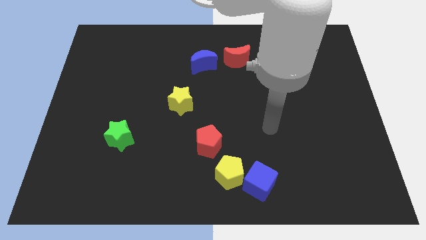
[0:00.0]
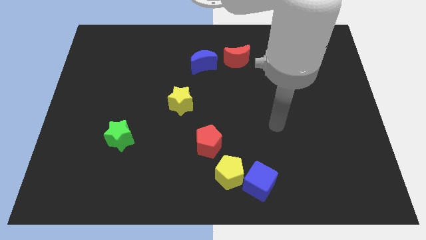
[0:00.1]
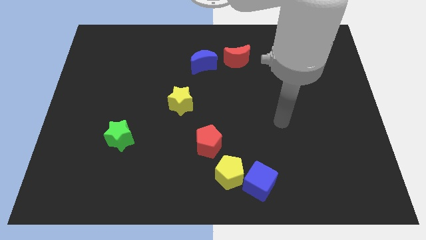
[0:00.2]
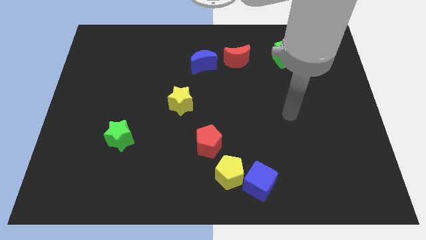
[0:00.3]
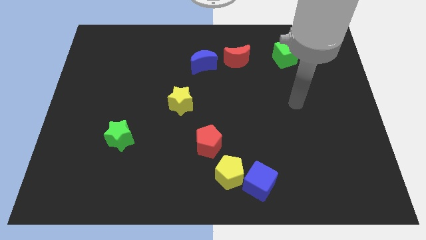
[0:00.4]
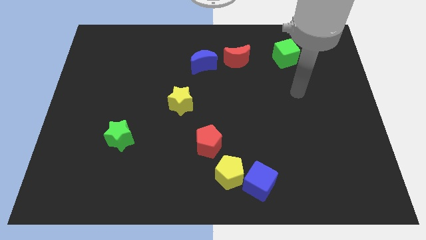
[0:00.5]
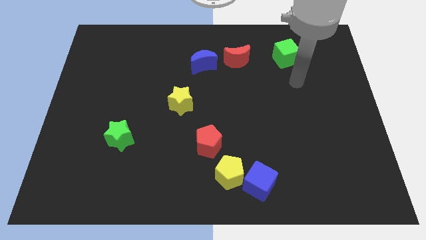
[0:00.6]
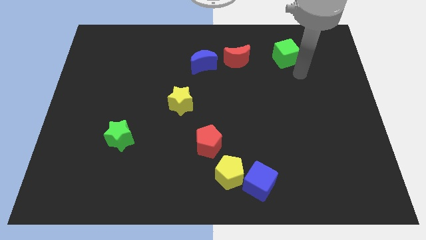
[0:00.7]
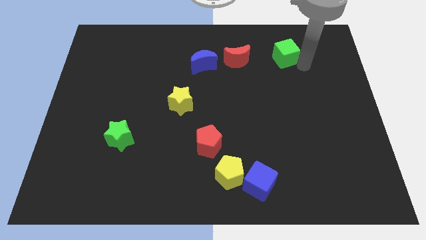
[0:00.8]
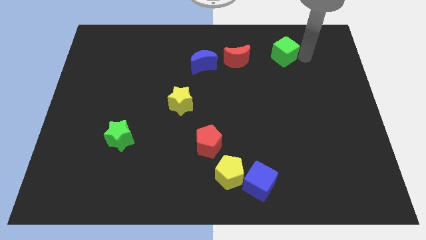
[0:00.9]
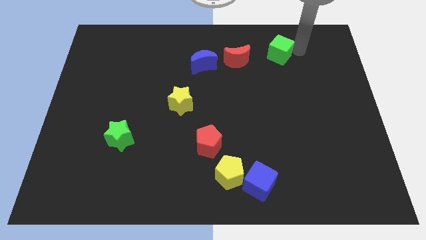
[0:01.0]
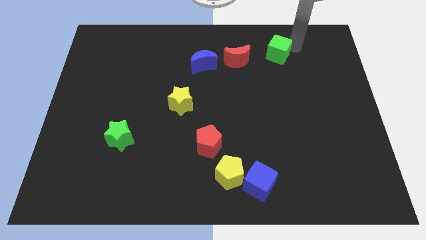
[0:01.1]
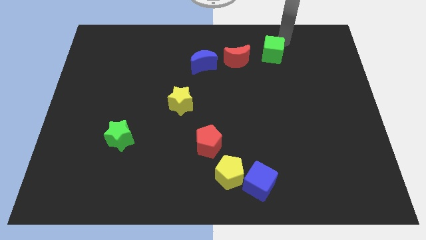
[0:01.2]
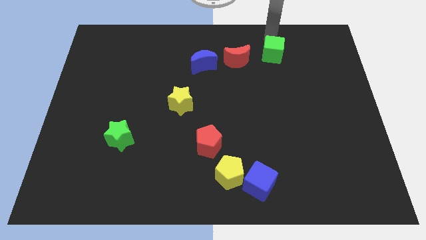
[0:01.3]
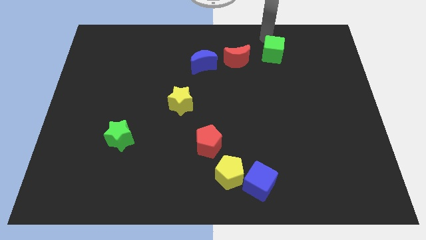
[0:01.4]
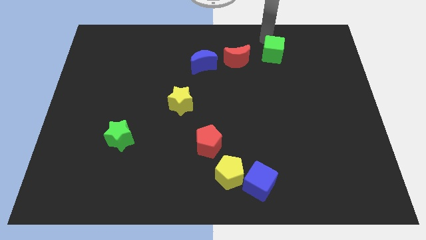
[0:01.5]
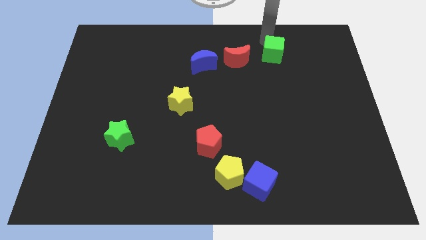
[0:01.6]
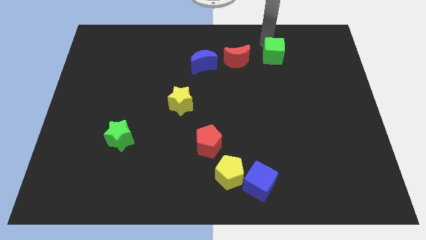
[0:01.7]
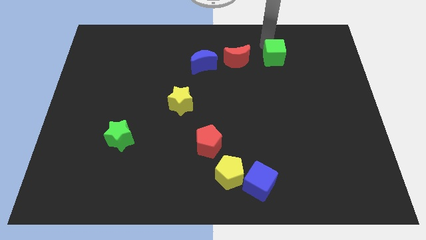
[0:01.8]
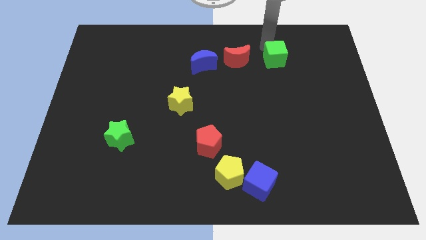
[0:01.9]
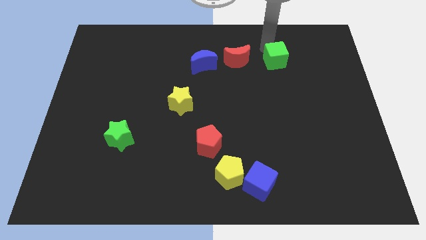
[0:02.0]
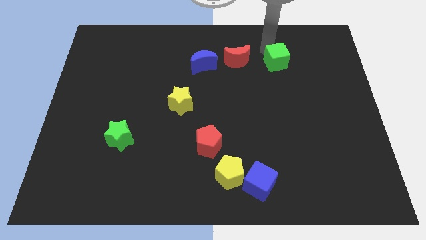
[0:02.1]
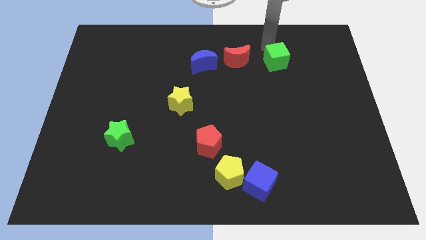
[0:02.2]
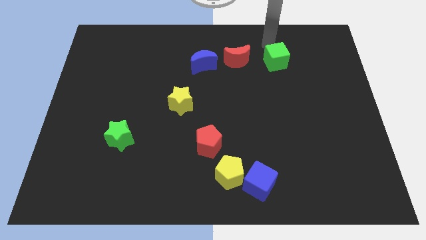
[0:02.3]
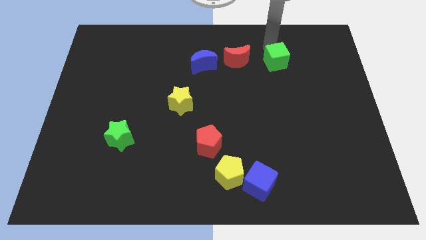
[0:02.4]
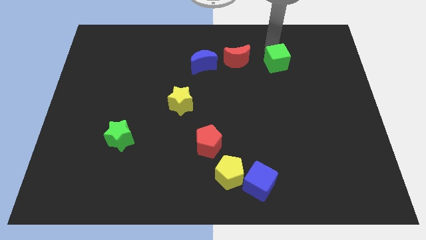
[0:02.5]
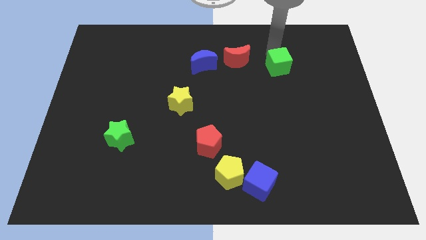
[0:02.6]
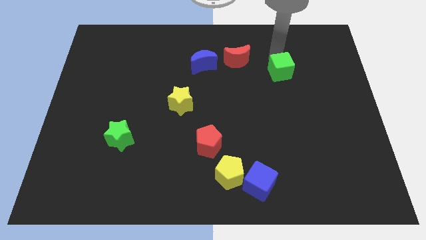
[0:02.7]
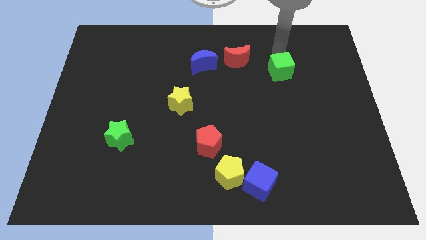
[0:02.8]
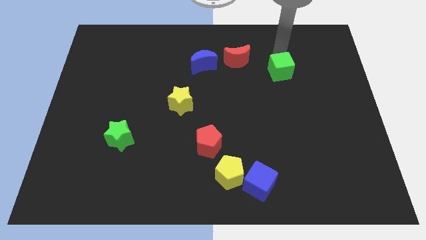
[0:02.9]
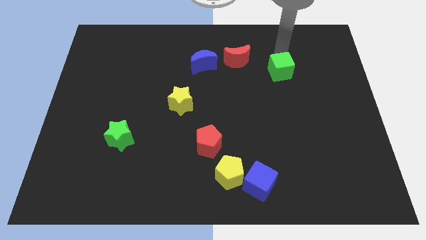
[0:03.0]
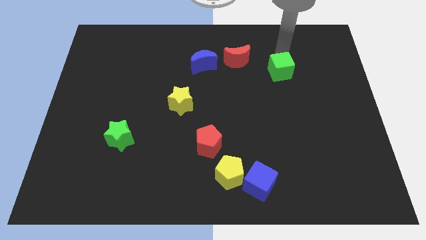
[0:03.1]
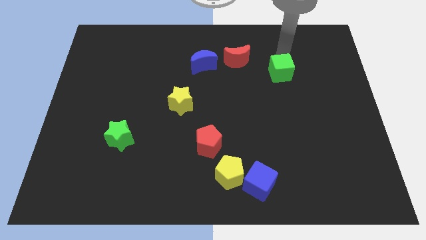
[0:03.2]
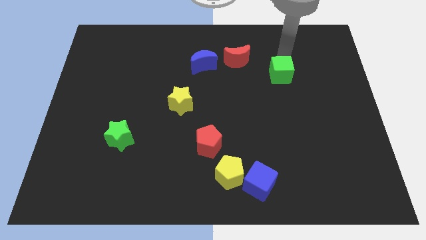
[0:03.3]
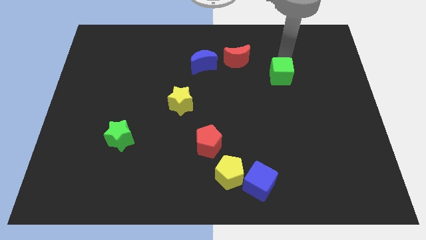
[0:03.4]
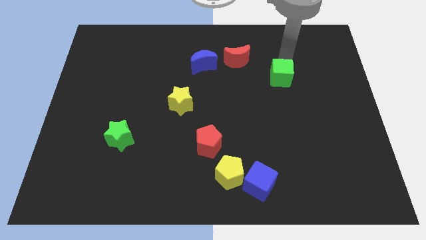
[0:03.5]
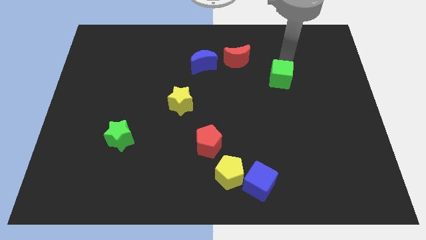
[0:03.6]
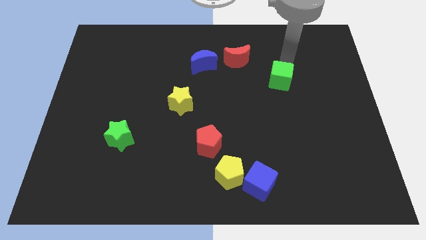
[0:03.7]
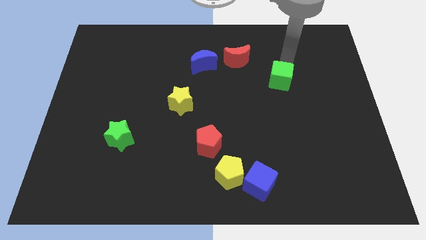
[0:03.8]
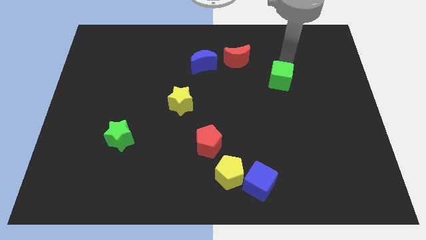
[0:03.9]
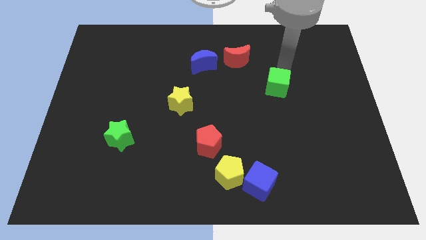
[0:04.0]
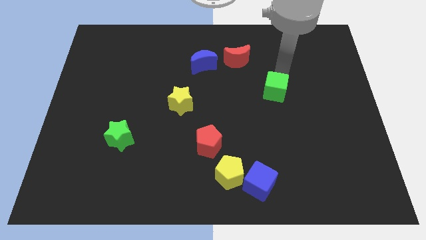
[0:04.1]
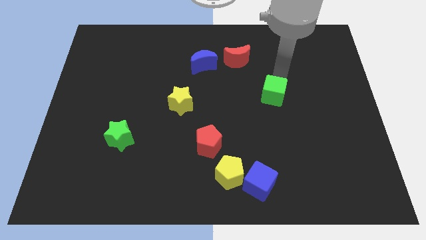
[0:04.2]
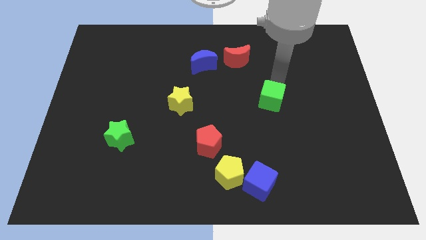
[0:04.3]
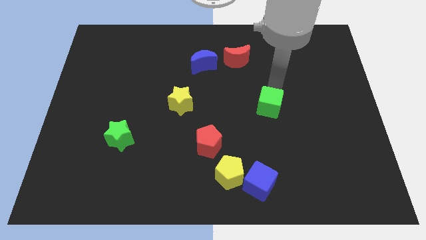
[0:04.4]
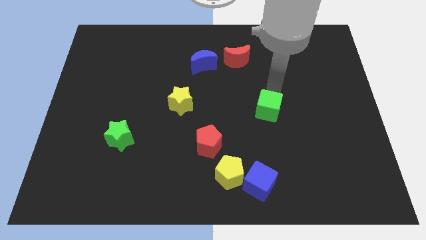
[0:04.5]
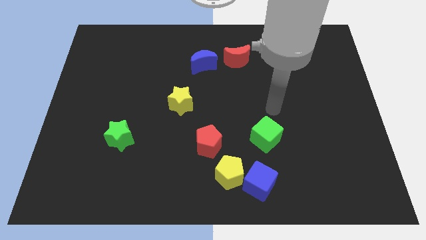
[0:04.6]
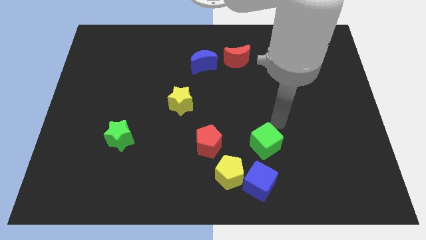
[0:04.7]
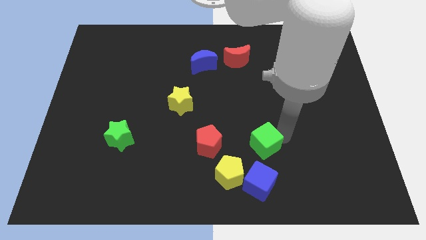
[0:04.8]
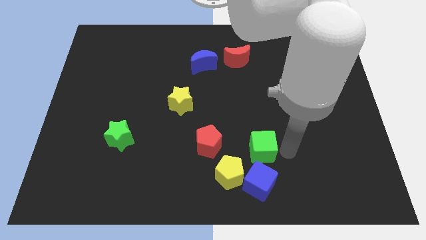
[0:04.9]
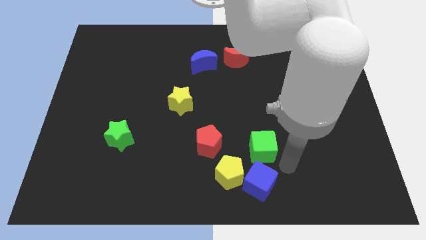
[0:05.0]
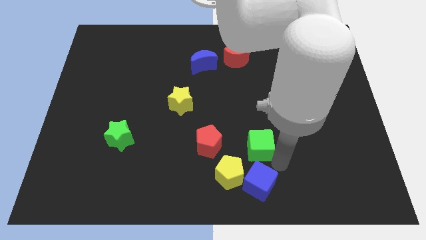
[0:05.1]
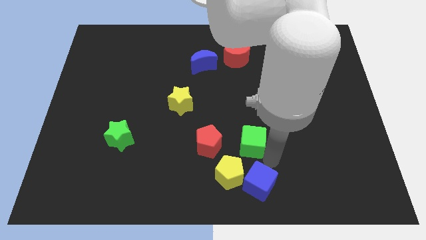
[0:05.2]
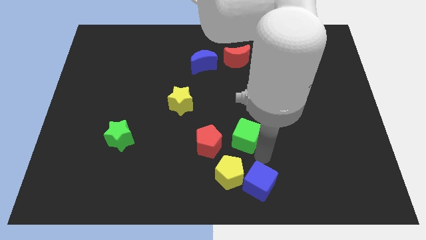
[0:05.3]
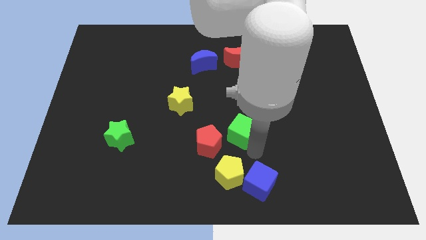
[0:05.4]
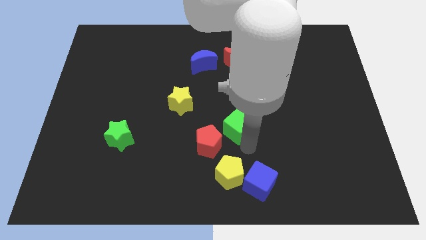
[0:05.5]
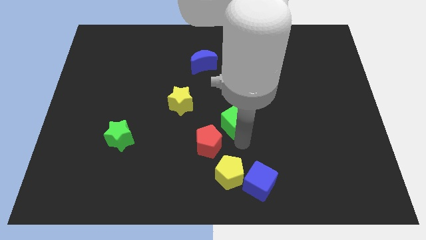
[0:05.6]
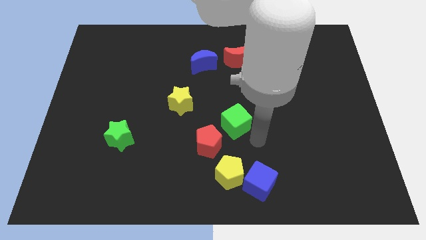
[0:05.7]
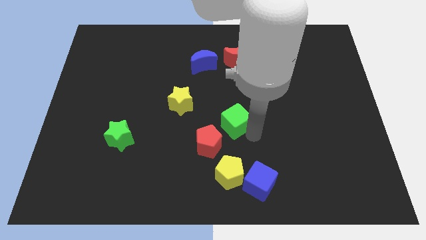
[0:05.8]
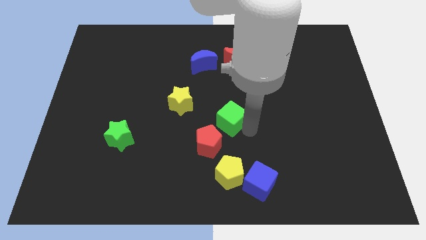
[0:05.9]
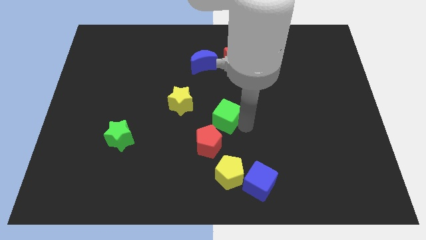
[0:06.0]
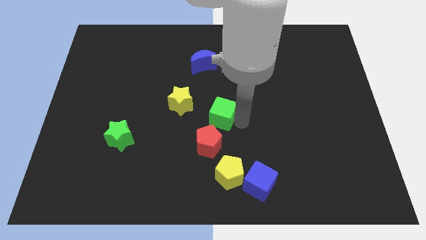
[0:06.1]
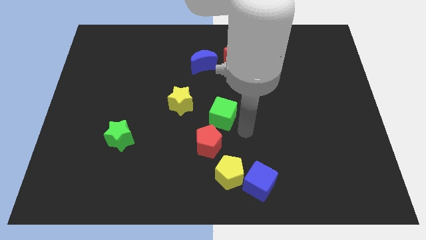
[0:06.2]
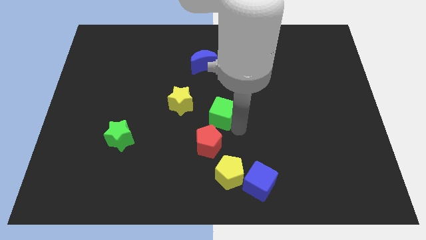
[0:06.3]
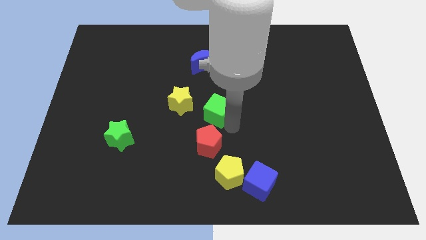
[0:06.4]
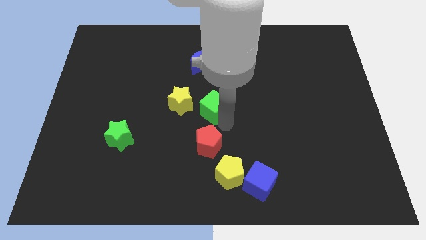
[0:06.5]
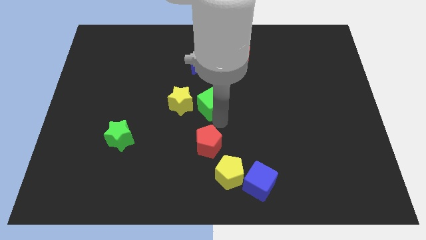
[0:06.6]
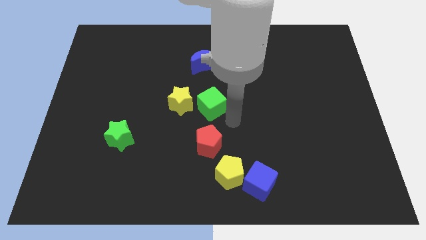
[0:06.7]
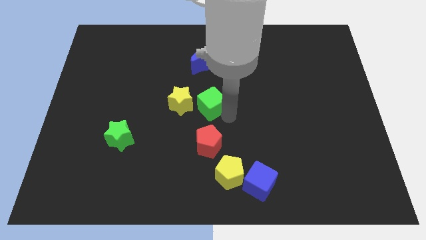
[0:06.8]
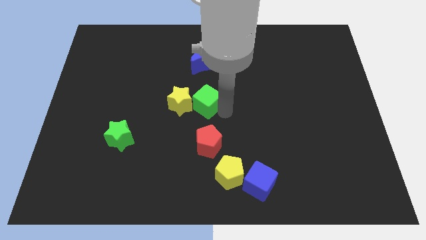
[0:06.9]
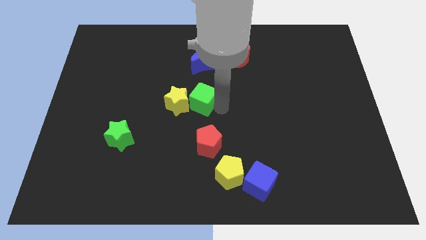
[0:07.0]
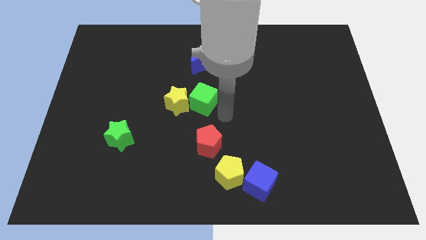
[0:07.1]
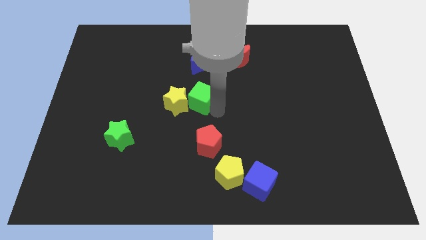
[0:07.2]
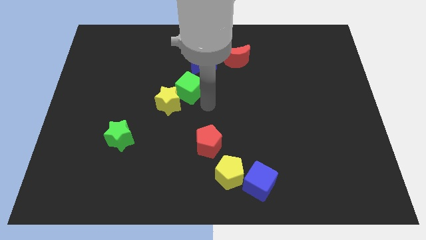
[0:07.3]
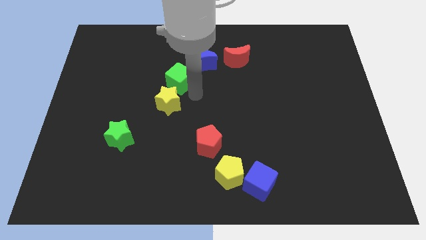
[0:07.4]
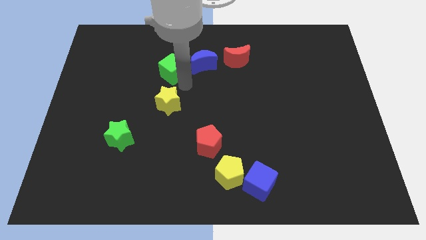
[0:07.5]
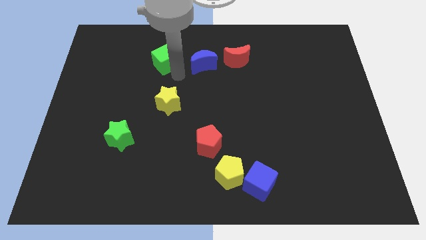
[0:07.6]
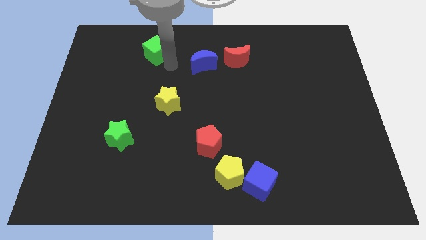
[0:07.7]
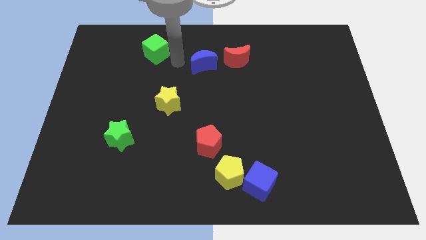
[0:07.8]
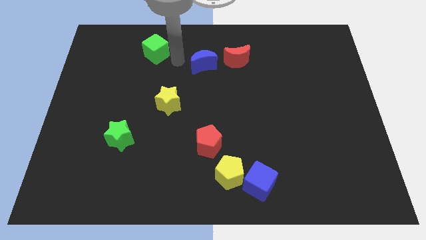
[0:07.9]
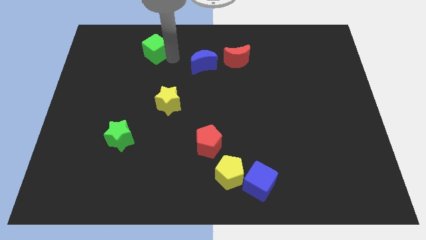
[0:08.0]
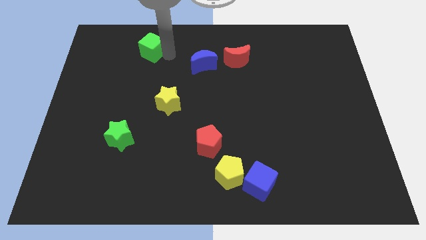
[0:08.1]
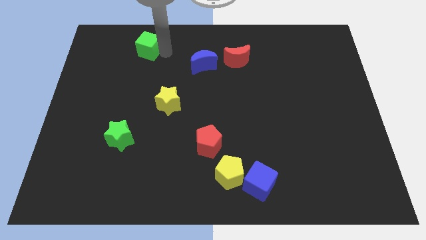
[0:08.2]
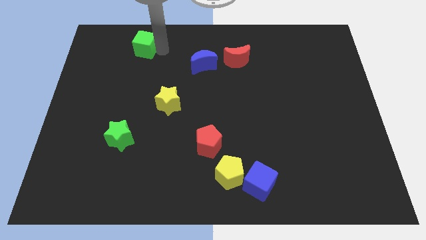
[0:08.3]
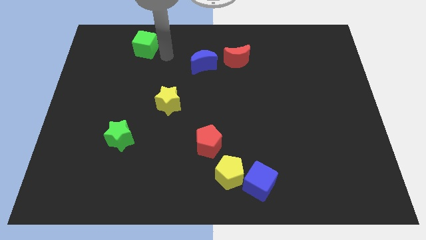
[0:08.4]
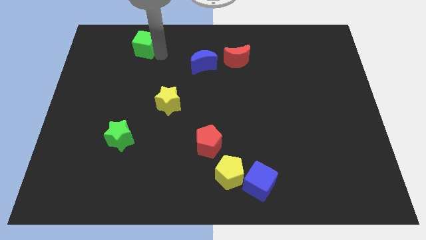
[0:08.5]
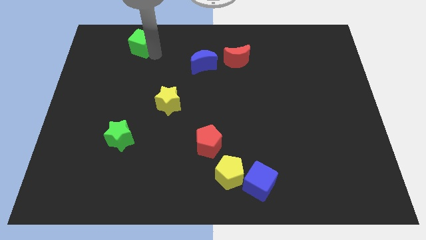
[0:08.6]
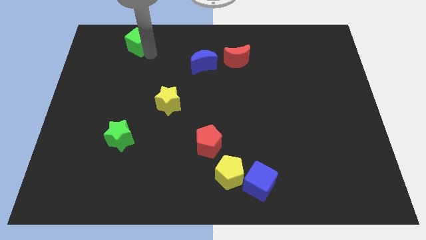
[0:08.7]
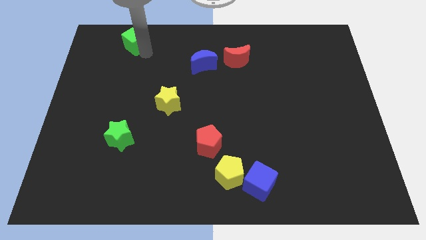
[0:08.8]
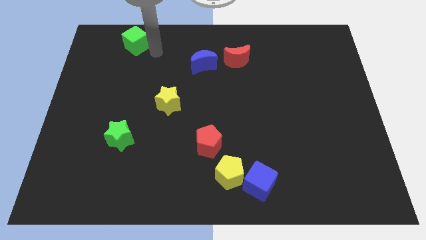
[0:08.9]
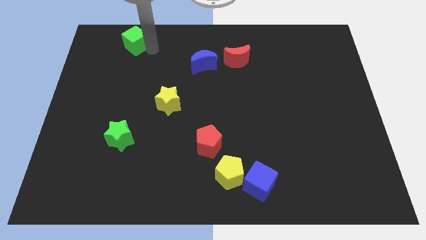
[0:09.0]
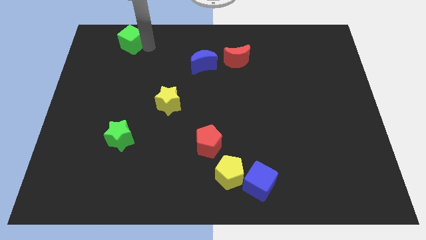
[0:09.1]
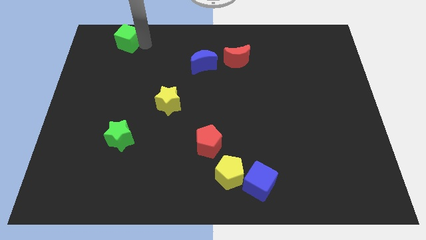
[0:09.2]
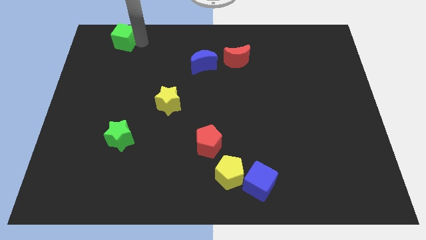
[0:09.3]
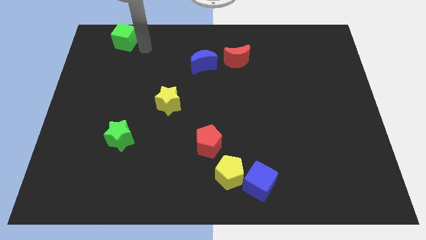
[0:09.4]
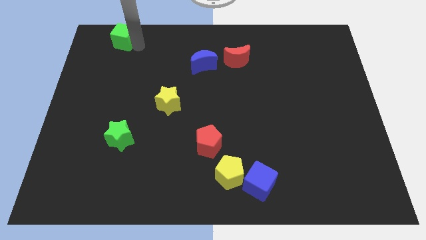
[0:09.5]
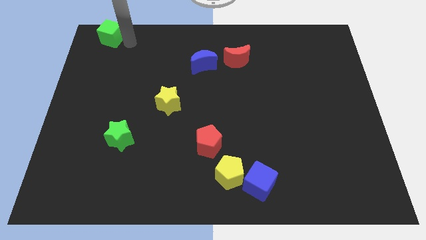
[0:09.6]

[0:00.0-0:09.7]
move the green cube to the top left of the board
